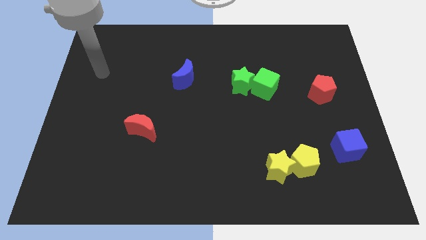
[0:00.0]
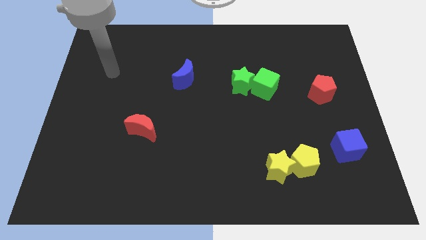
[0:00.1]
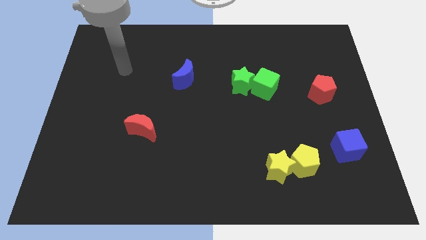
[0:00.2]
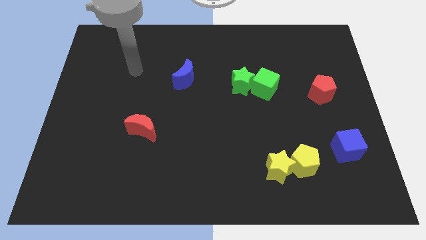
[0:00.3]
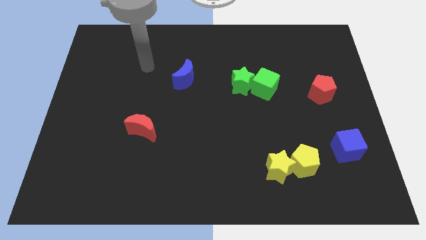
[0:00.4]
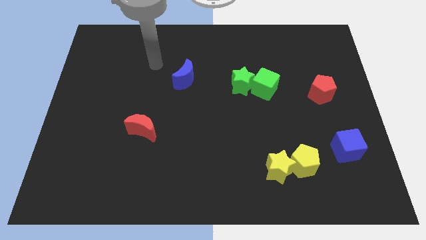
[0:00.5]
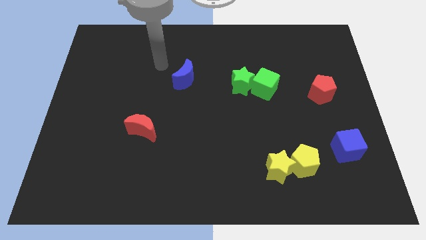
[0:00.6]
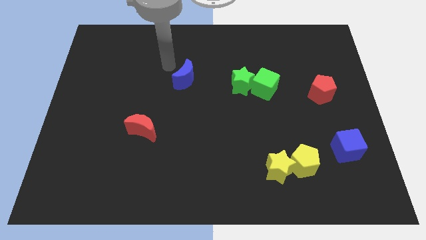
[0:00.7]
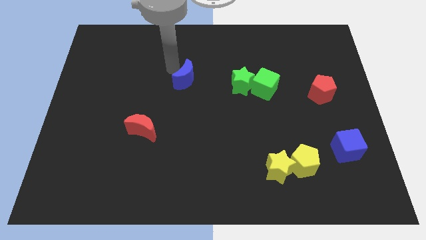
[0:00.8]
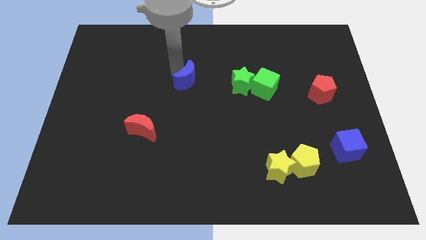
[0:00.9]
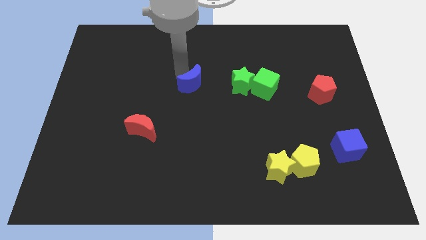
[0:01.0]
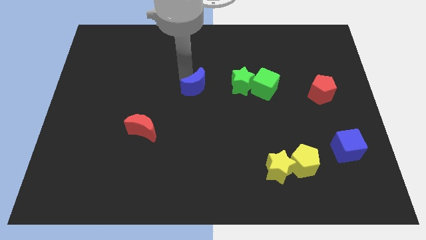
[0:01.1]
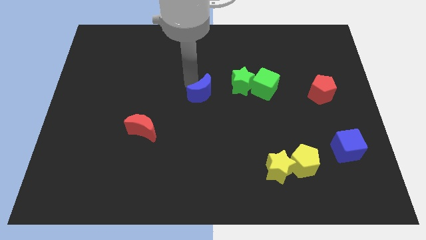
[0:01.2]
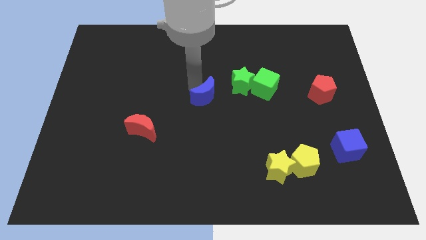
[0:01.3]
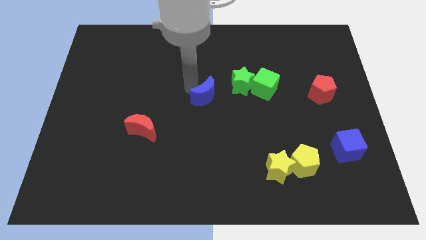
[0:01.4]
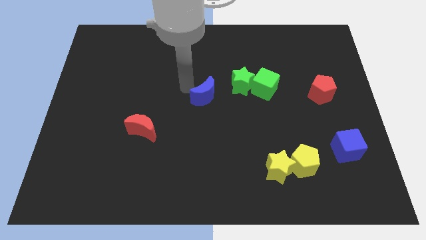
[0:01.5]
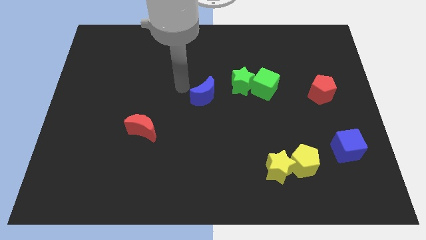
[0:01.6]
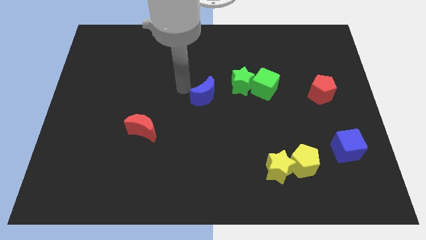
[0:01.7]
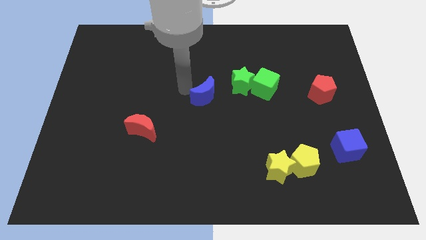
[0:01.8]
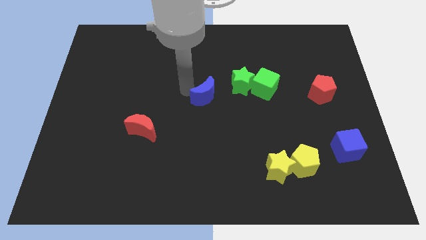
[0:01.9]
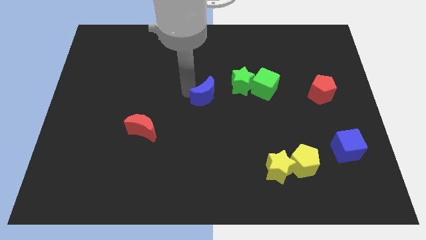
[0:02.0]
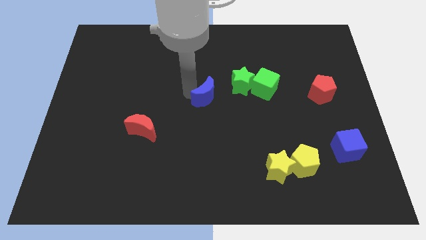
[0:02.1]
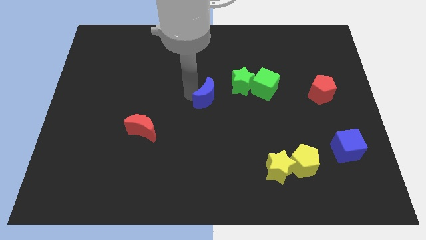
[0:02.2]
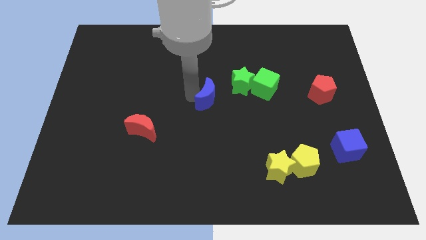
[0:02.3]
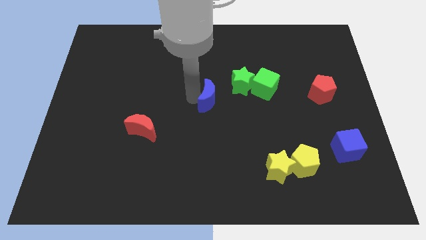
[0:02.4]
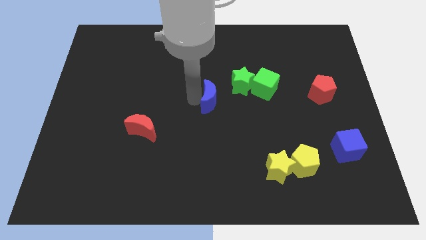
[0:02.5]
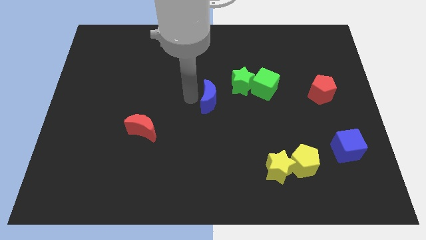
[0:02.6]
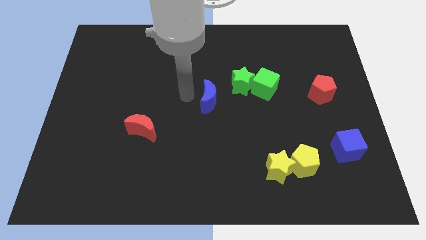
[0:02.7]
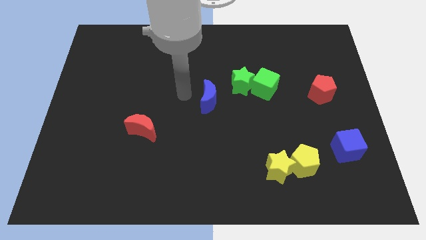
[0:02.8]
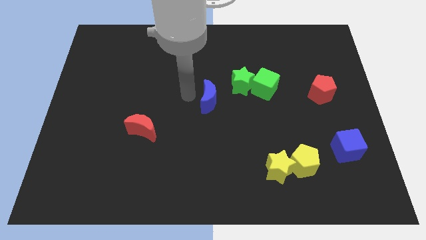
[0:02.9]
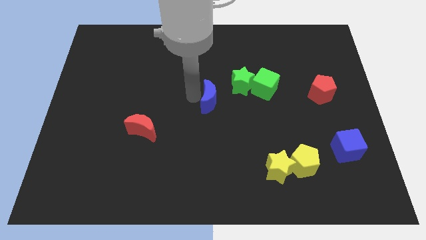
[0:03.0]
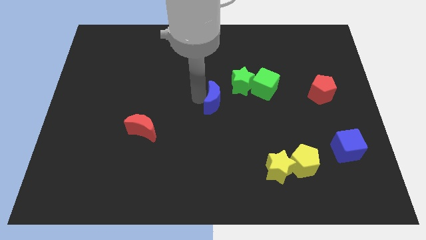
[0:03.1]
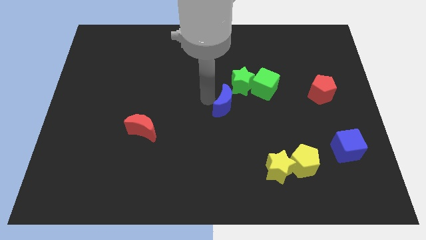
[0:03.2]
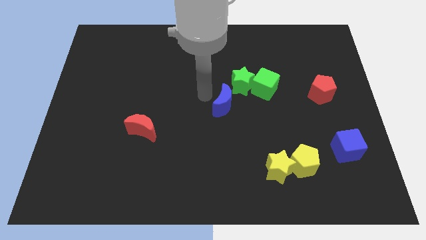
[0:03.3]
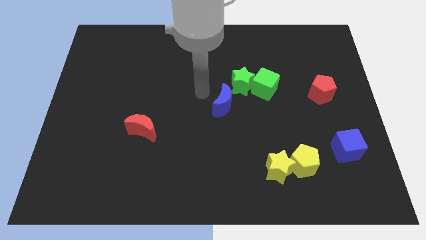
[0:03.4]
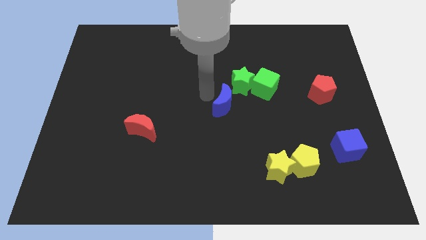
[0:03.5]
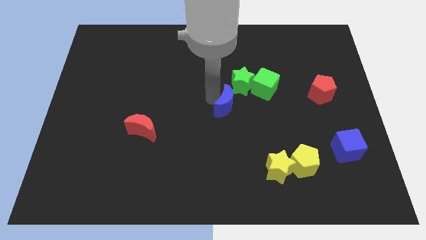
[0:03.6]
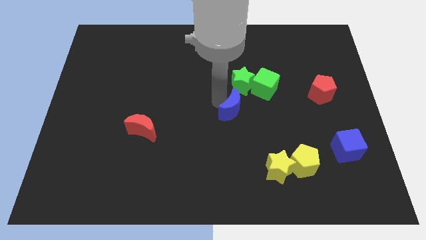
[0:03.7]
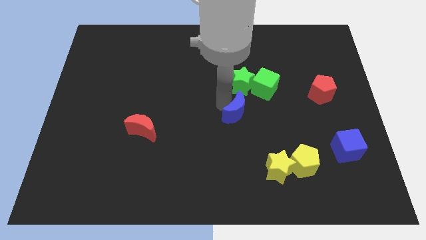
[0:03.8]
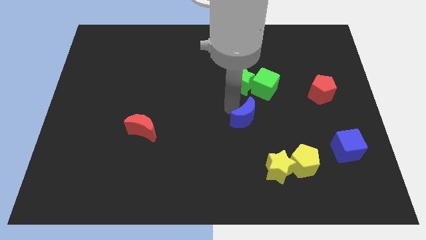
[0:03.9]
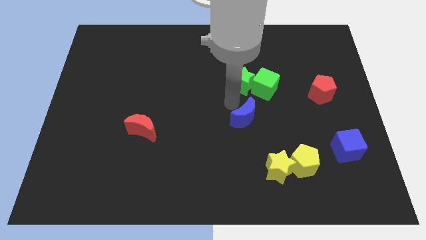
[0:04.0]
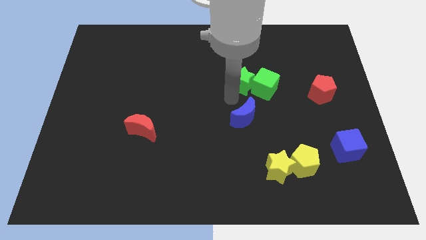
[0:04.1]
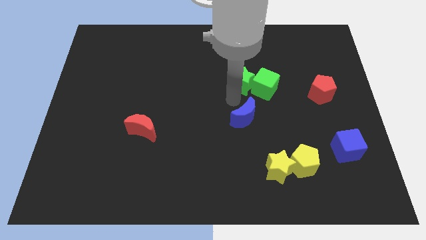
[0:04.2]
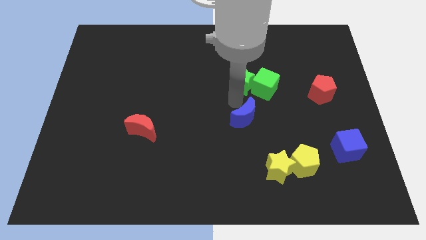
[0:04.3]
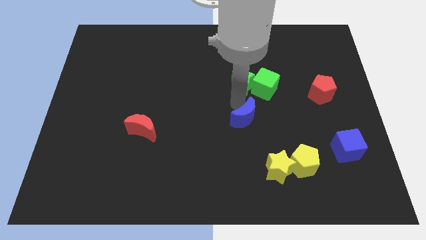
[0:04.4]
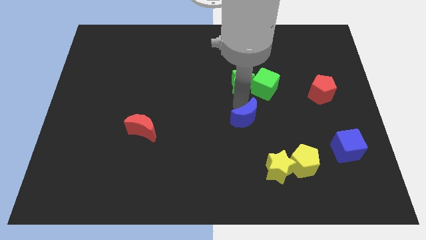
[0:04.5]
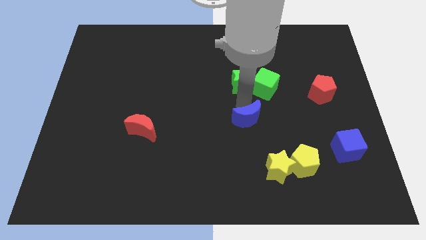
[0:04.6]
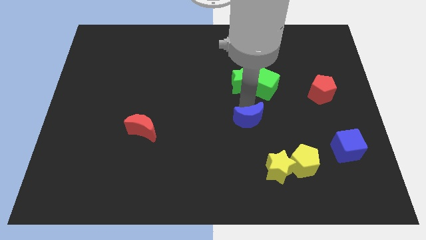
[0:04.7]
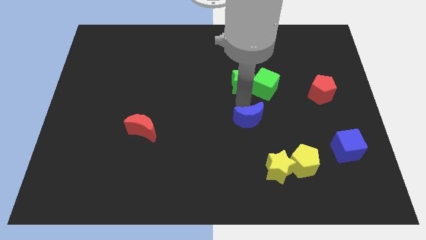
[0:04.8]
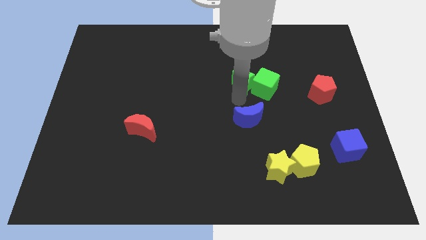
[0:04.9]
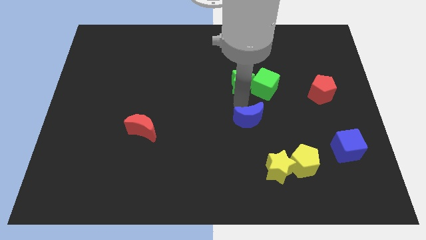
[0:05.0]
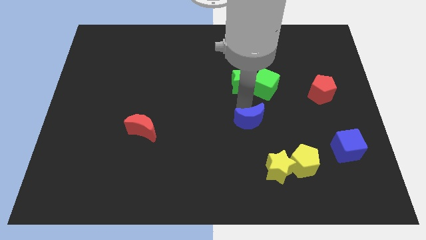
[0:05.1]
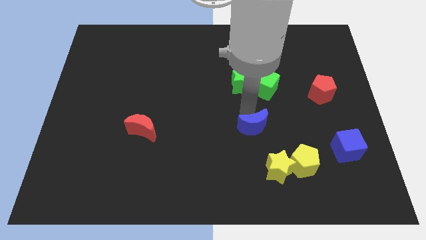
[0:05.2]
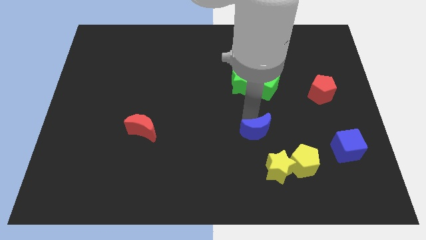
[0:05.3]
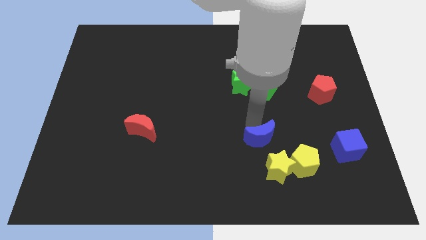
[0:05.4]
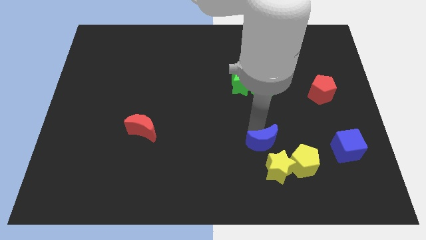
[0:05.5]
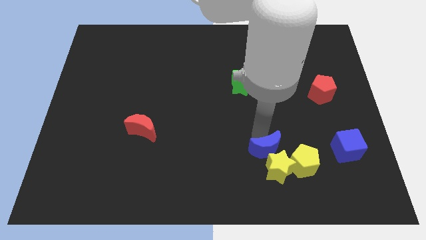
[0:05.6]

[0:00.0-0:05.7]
put the blue moon to the yellow star

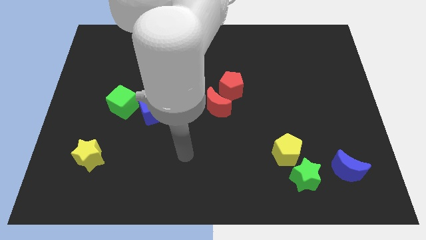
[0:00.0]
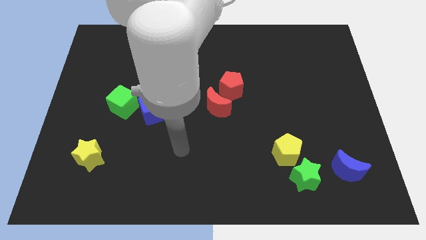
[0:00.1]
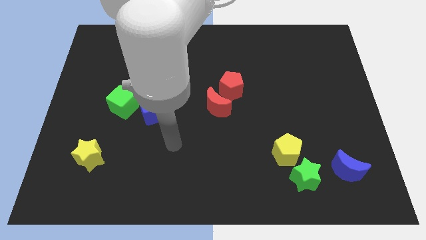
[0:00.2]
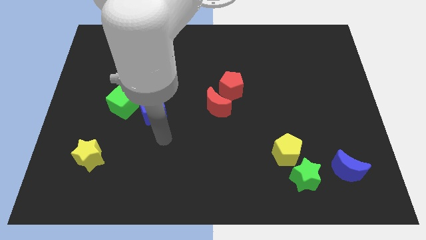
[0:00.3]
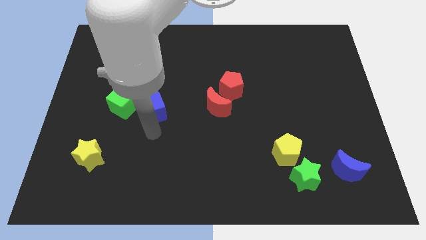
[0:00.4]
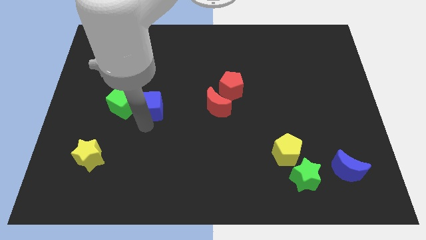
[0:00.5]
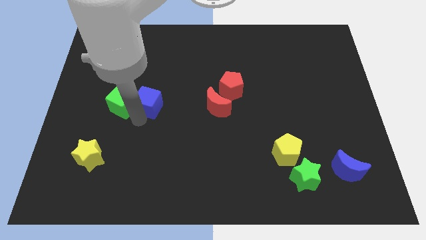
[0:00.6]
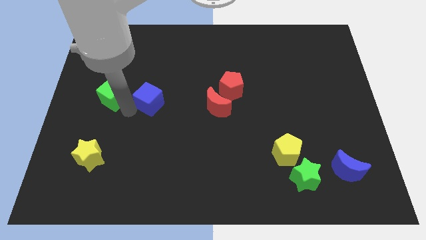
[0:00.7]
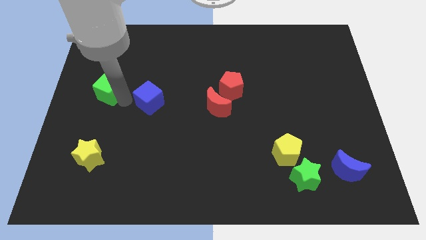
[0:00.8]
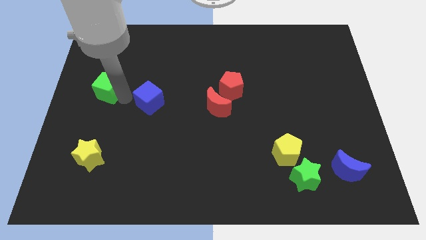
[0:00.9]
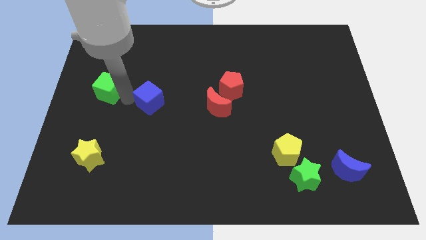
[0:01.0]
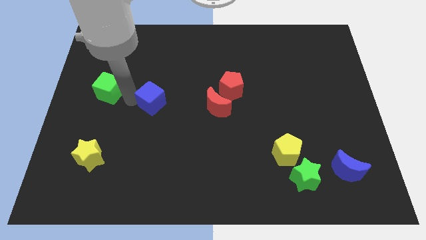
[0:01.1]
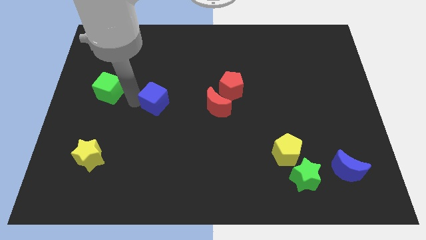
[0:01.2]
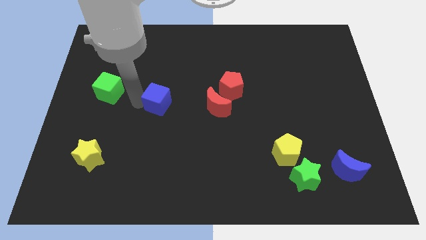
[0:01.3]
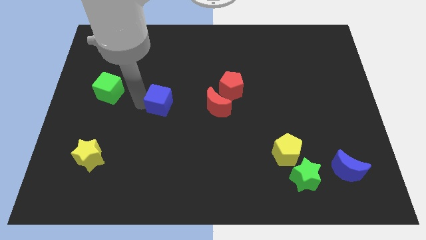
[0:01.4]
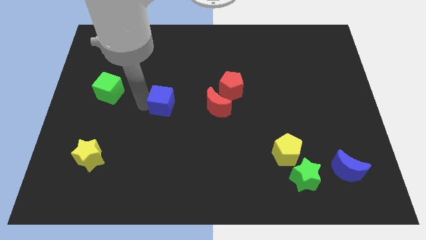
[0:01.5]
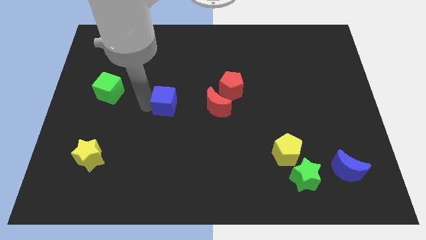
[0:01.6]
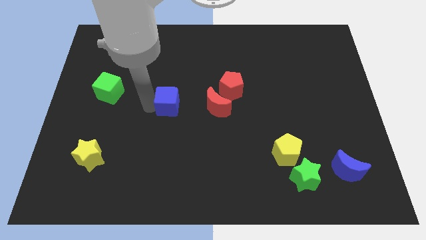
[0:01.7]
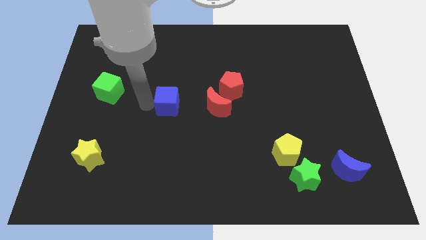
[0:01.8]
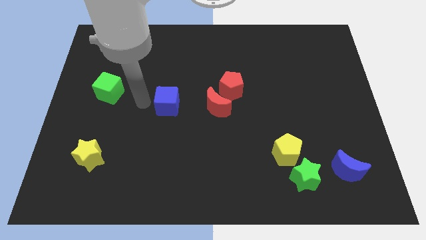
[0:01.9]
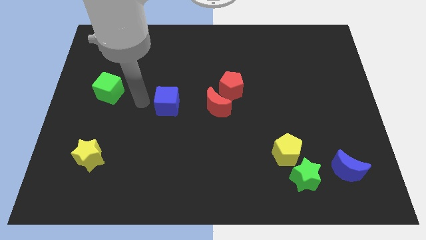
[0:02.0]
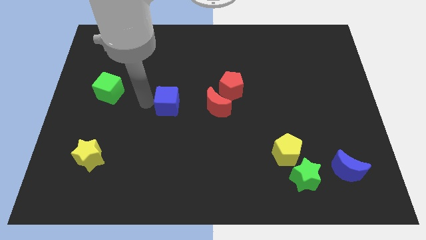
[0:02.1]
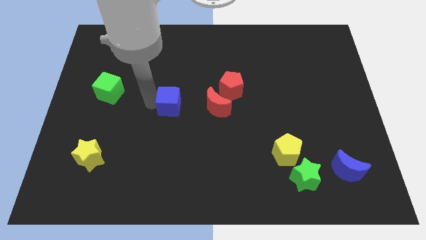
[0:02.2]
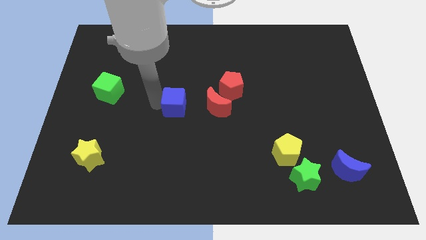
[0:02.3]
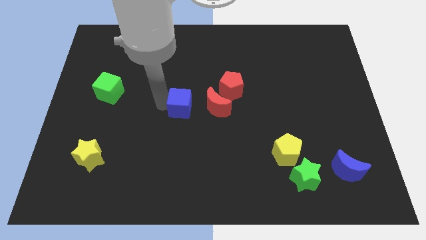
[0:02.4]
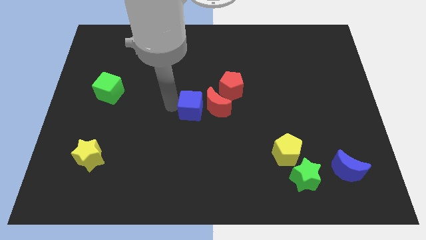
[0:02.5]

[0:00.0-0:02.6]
move the blue cube to the red moon
